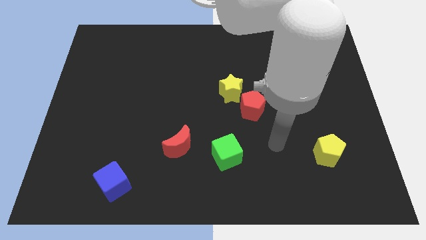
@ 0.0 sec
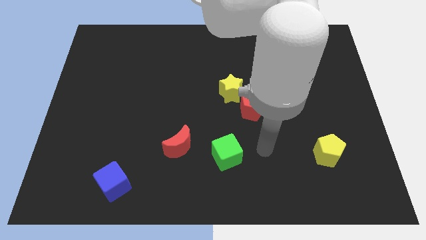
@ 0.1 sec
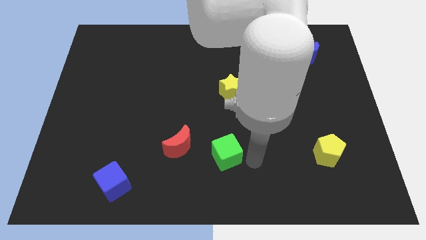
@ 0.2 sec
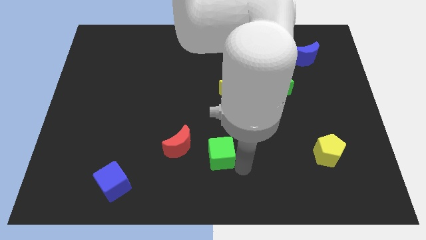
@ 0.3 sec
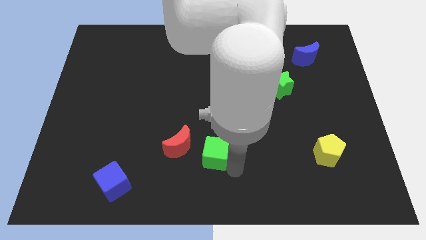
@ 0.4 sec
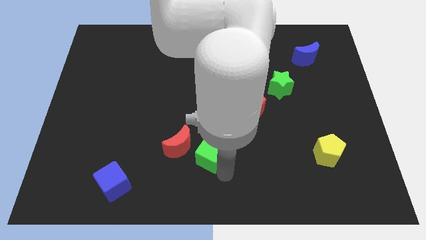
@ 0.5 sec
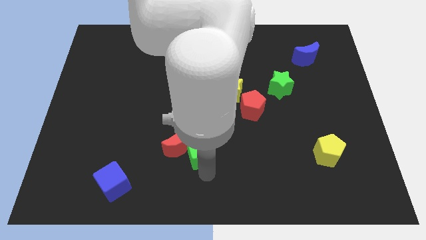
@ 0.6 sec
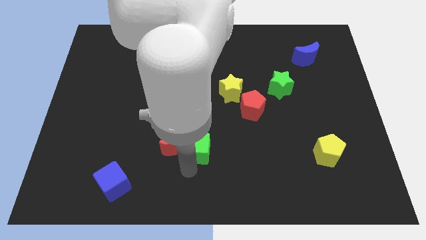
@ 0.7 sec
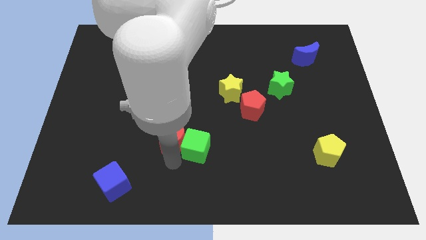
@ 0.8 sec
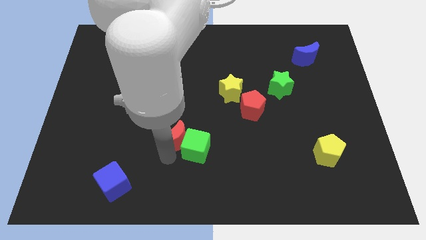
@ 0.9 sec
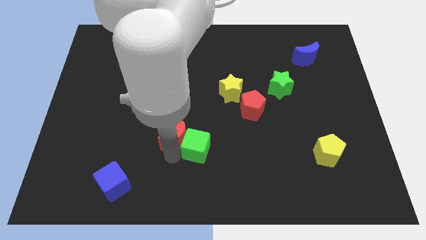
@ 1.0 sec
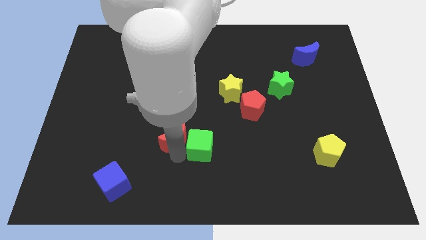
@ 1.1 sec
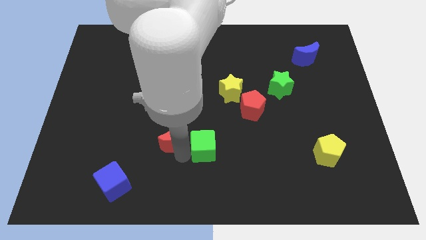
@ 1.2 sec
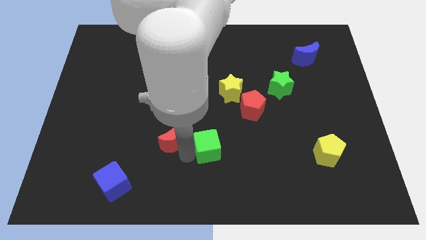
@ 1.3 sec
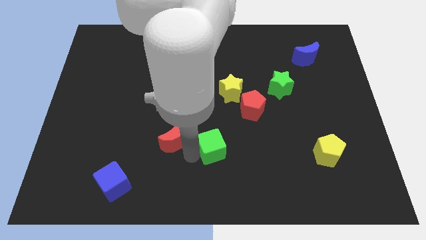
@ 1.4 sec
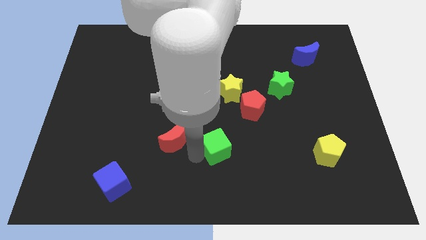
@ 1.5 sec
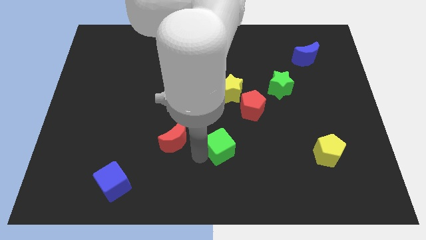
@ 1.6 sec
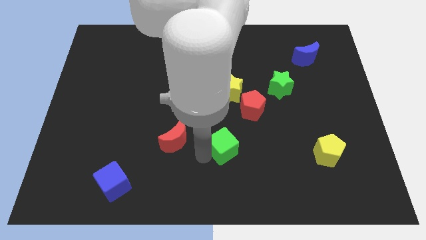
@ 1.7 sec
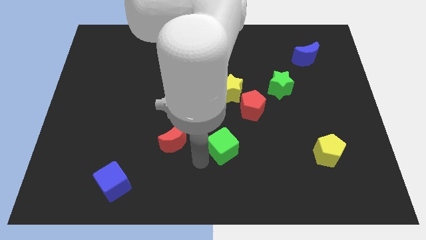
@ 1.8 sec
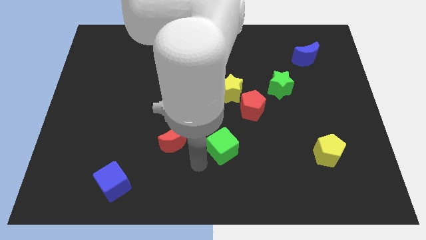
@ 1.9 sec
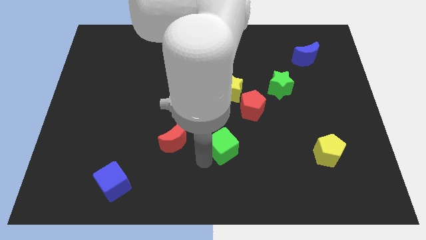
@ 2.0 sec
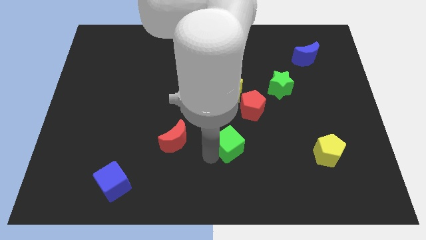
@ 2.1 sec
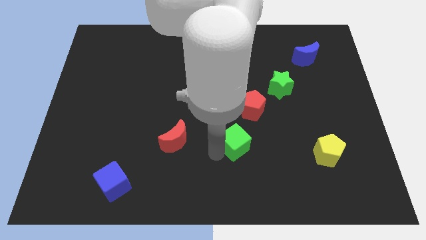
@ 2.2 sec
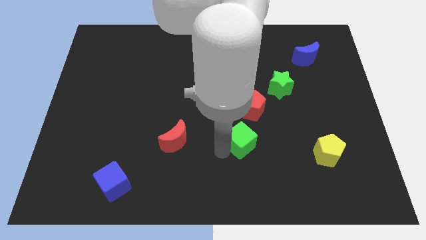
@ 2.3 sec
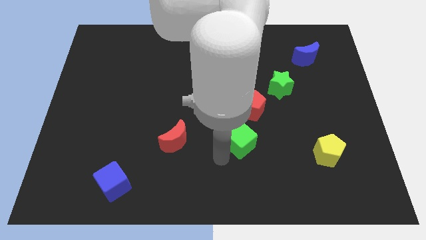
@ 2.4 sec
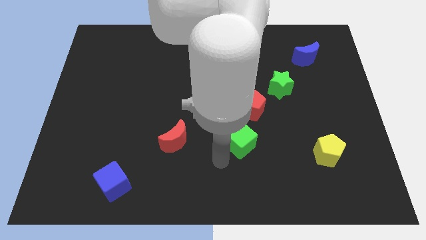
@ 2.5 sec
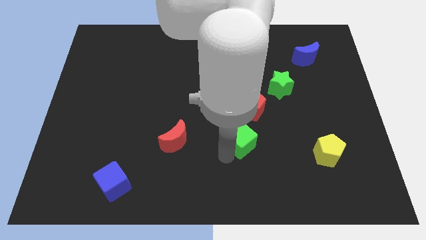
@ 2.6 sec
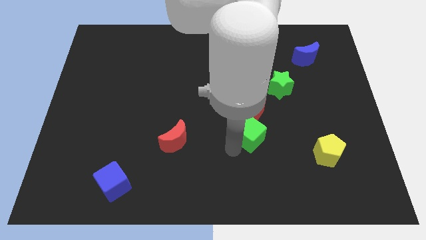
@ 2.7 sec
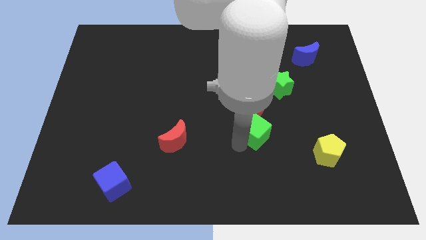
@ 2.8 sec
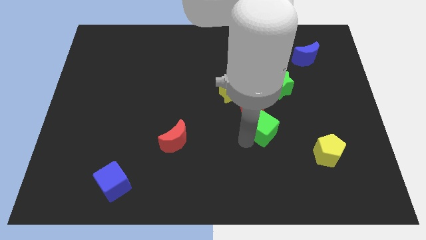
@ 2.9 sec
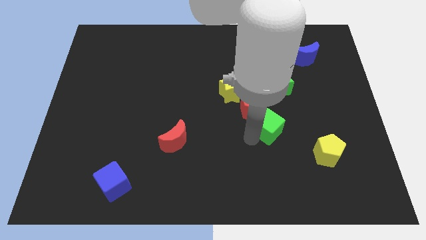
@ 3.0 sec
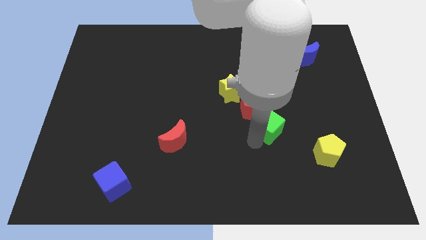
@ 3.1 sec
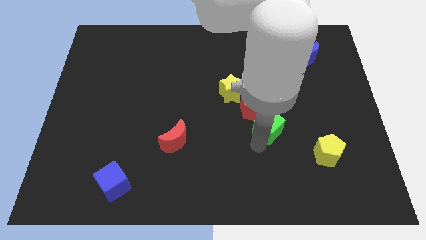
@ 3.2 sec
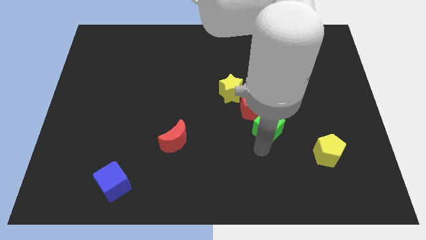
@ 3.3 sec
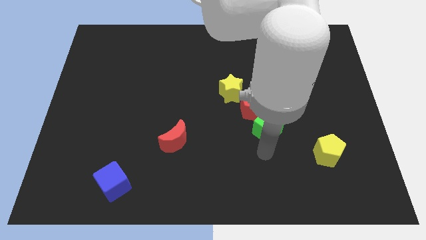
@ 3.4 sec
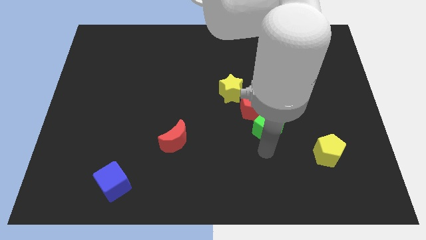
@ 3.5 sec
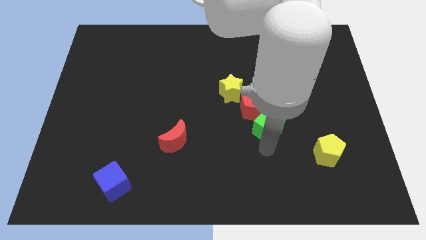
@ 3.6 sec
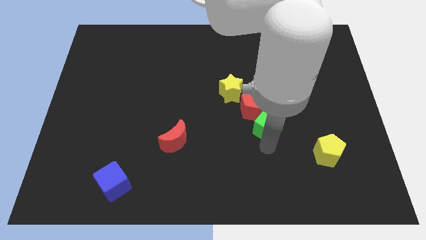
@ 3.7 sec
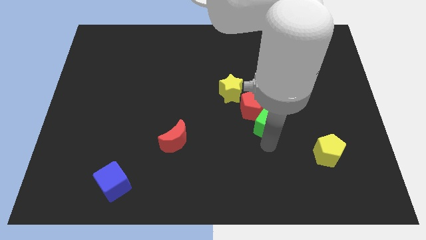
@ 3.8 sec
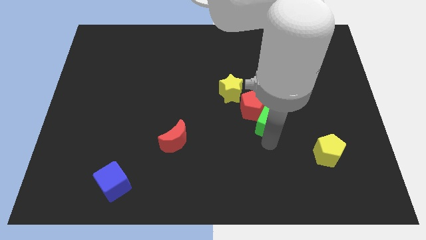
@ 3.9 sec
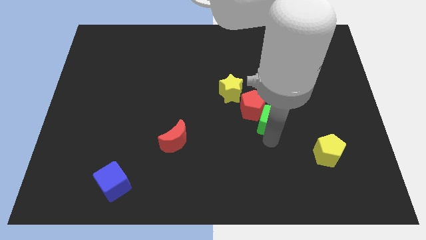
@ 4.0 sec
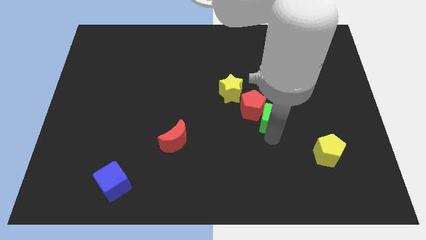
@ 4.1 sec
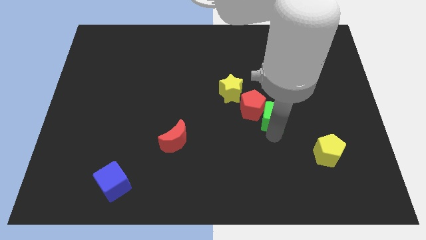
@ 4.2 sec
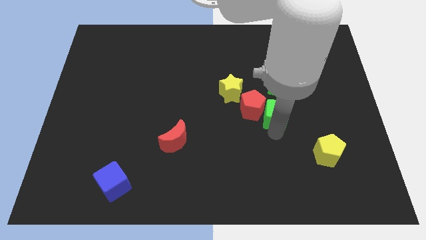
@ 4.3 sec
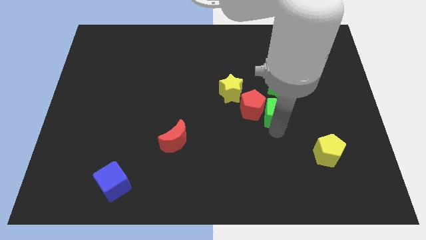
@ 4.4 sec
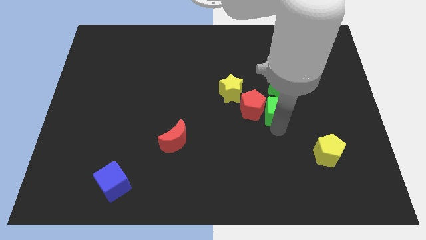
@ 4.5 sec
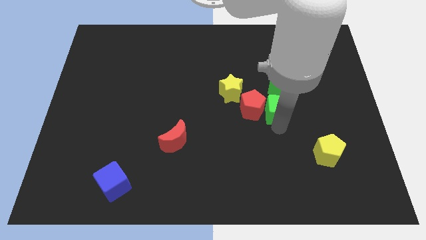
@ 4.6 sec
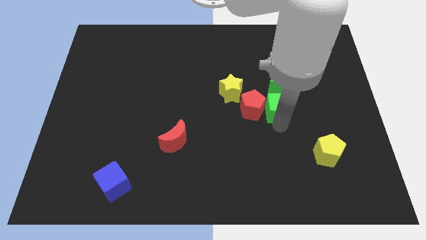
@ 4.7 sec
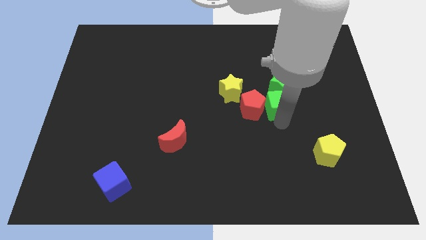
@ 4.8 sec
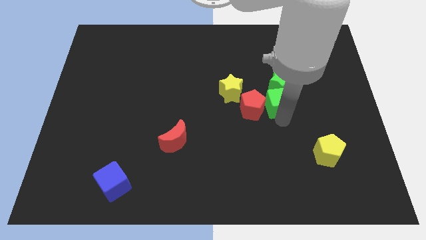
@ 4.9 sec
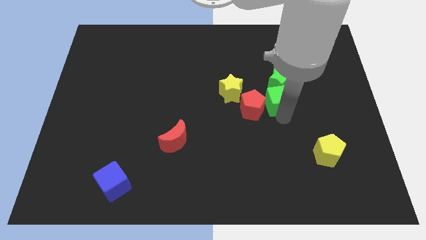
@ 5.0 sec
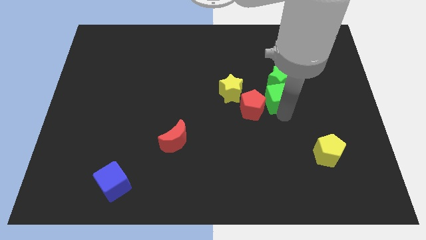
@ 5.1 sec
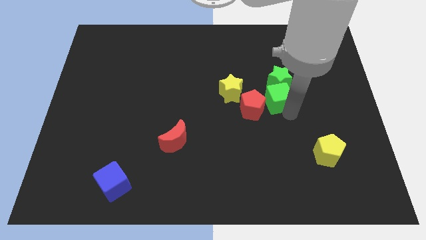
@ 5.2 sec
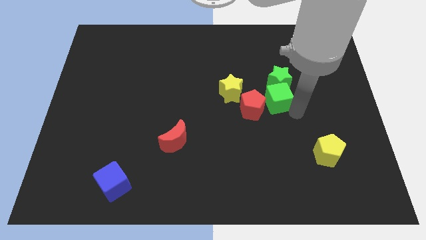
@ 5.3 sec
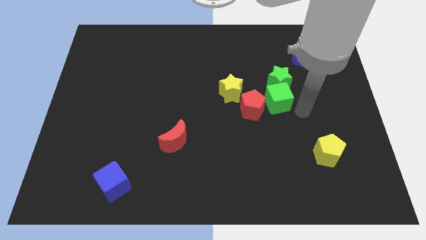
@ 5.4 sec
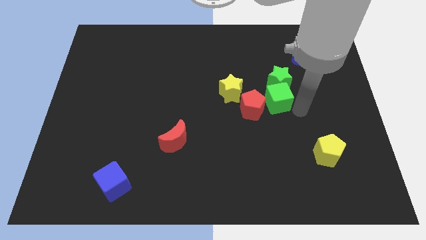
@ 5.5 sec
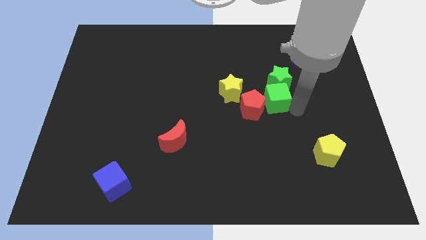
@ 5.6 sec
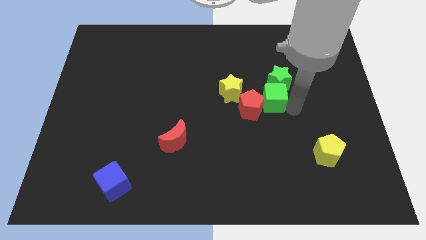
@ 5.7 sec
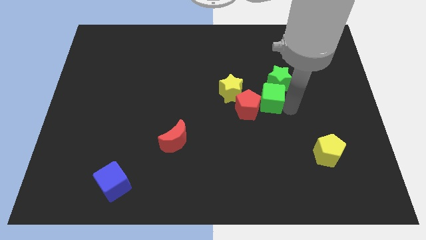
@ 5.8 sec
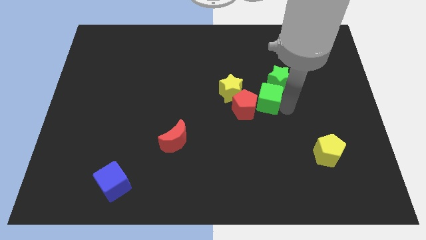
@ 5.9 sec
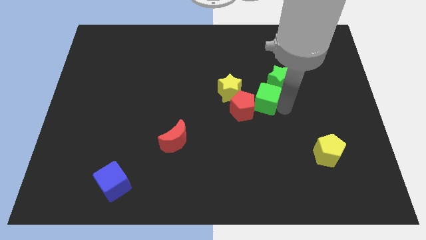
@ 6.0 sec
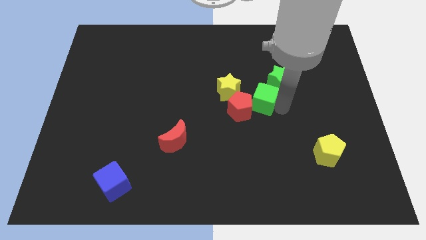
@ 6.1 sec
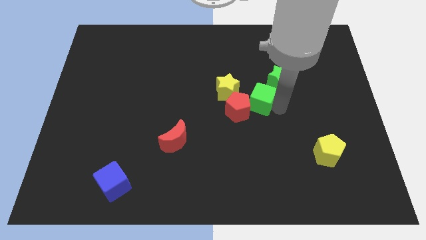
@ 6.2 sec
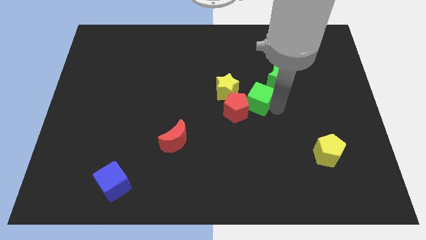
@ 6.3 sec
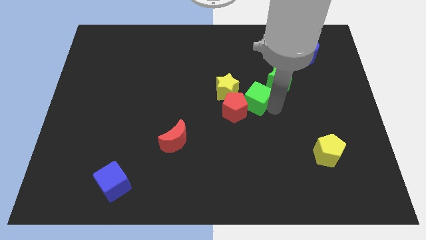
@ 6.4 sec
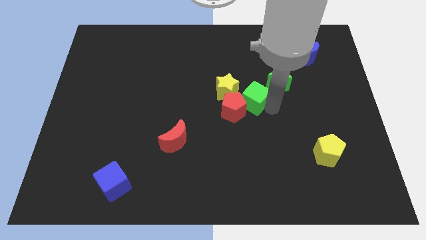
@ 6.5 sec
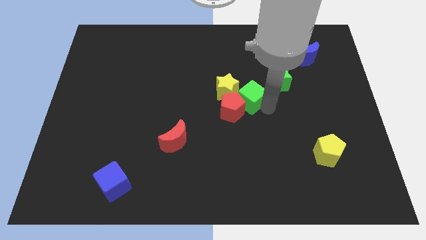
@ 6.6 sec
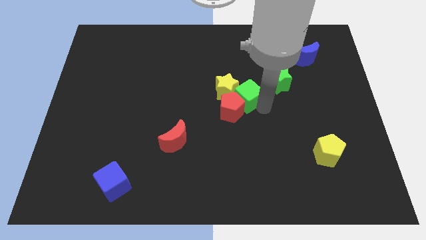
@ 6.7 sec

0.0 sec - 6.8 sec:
slide the green cube to the top of the red pentagon

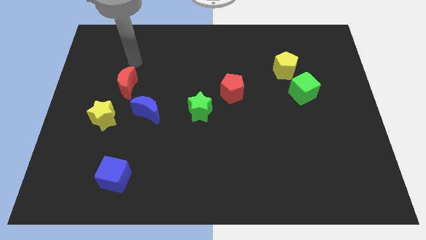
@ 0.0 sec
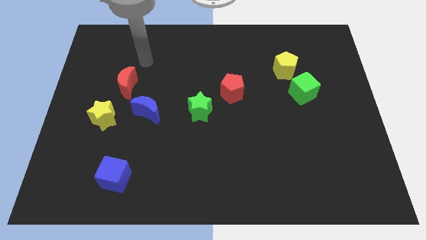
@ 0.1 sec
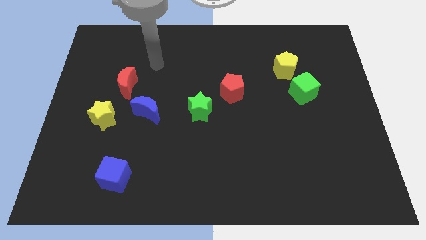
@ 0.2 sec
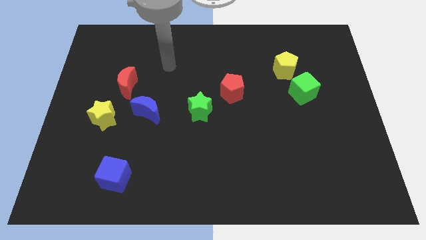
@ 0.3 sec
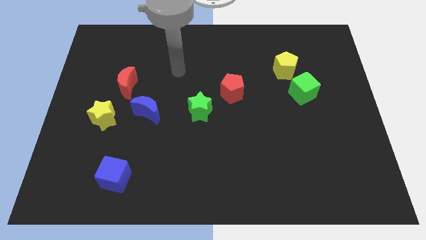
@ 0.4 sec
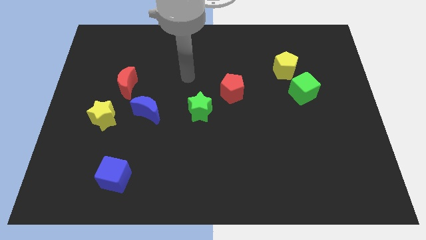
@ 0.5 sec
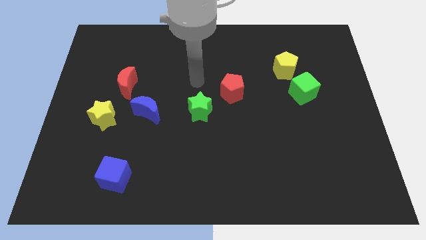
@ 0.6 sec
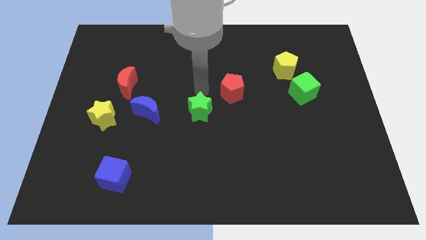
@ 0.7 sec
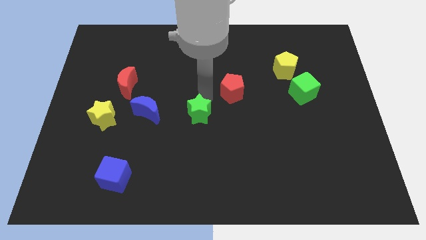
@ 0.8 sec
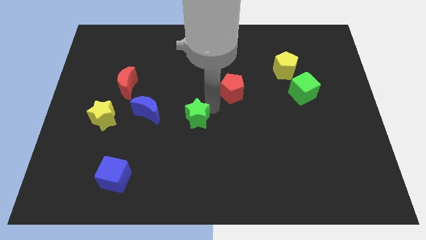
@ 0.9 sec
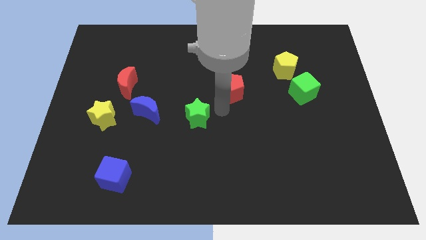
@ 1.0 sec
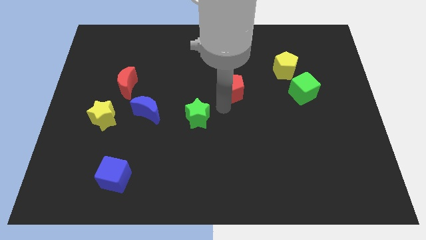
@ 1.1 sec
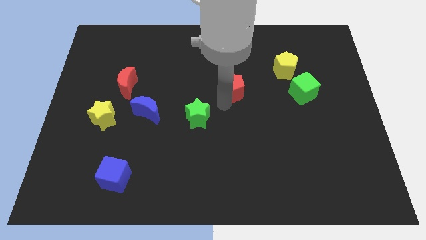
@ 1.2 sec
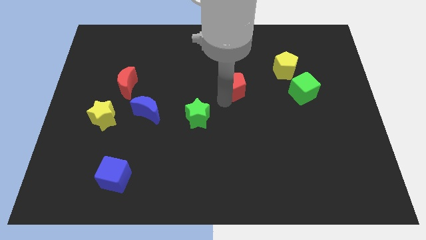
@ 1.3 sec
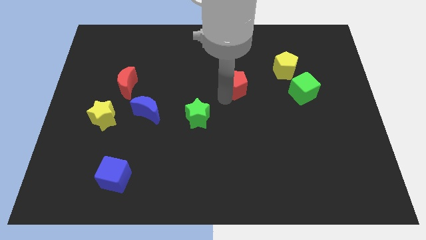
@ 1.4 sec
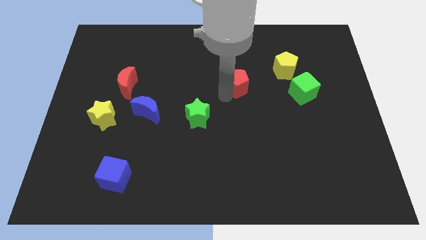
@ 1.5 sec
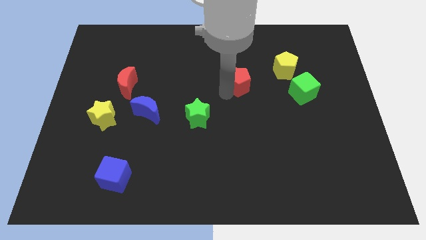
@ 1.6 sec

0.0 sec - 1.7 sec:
put the red pentagon left of the yellow pentagon
